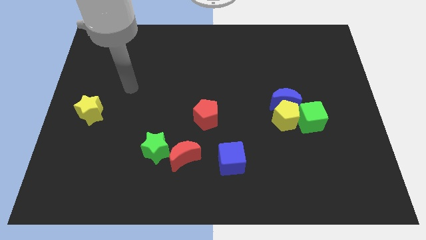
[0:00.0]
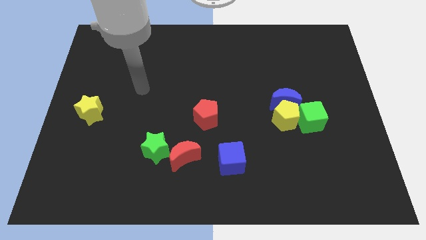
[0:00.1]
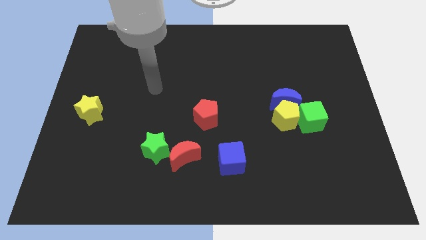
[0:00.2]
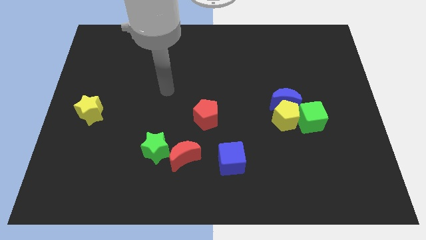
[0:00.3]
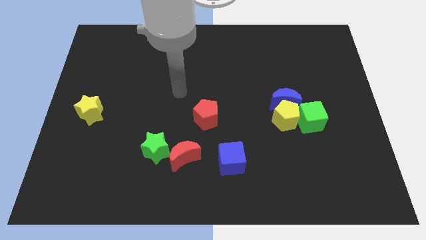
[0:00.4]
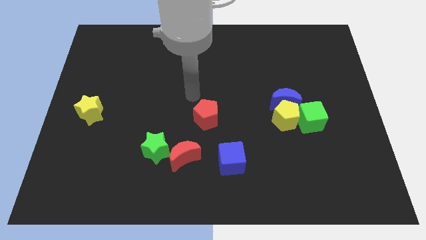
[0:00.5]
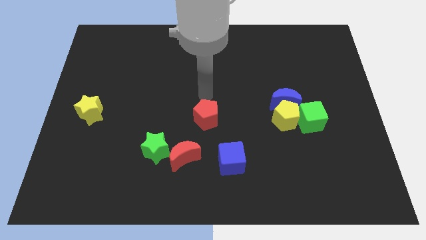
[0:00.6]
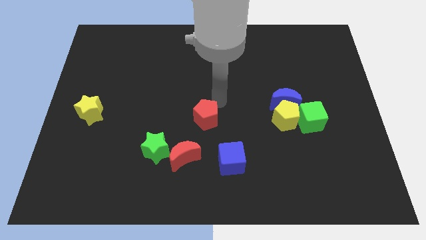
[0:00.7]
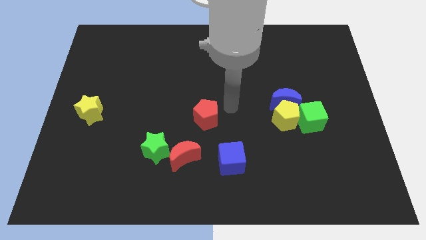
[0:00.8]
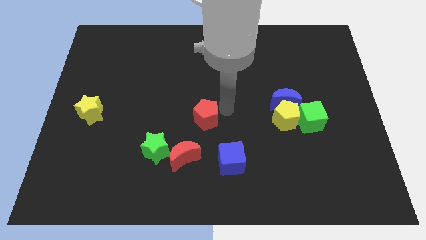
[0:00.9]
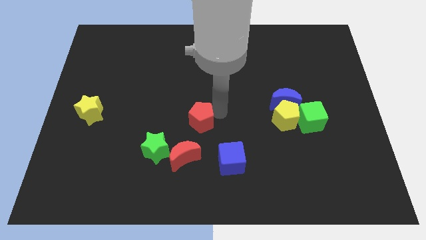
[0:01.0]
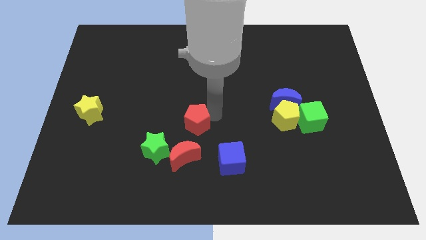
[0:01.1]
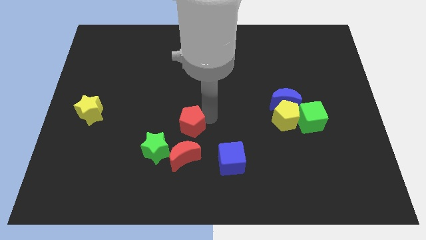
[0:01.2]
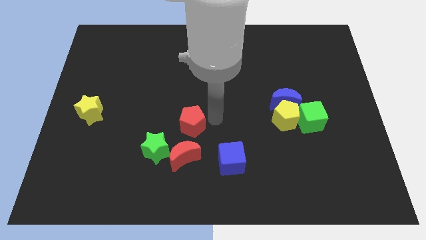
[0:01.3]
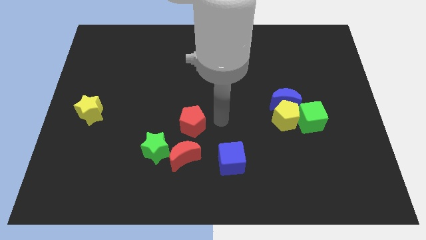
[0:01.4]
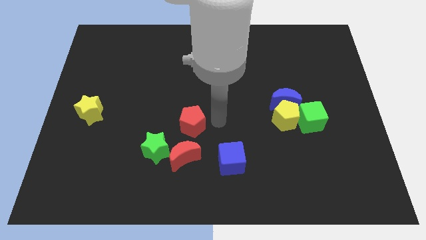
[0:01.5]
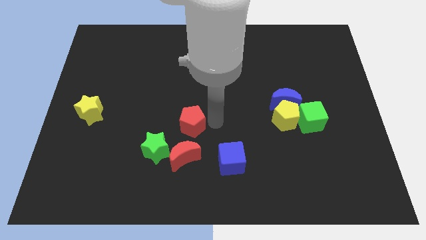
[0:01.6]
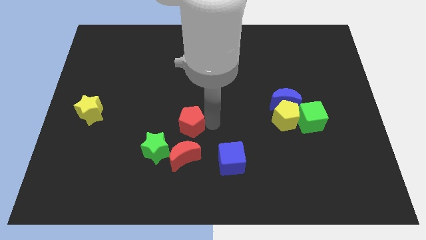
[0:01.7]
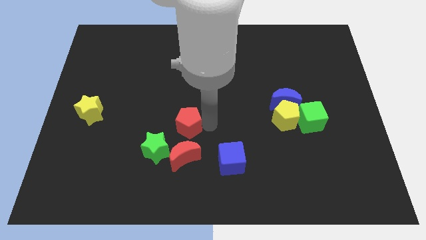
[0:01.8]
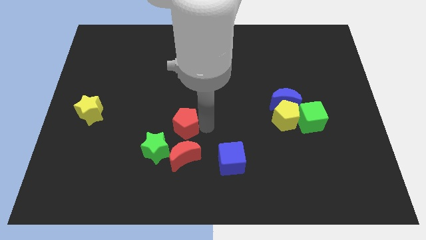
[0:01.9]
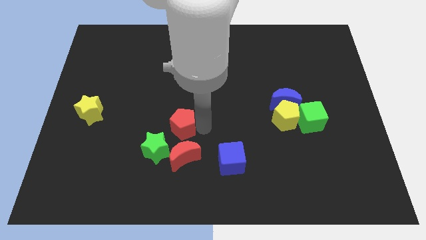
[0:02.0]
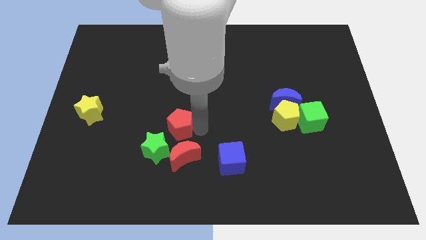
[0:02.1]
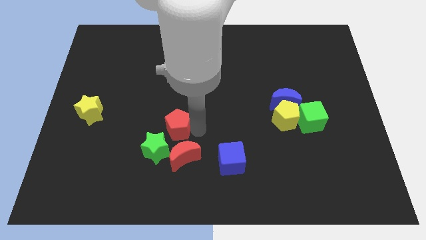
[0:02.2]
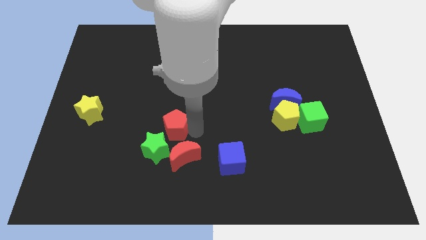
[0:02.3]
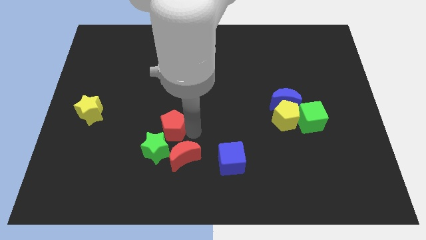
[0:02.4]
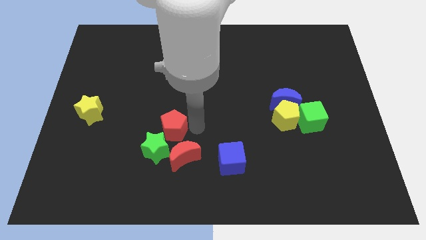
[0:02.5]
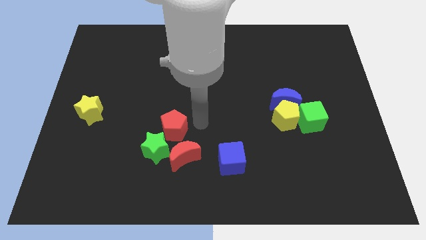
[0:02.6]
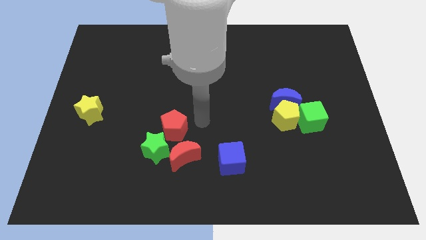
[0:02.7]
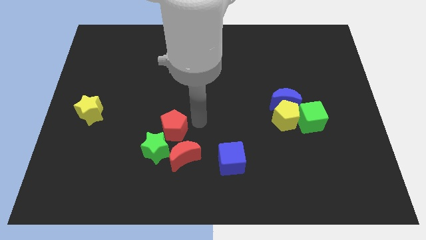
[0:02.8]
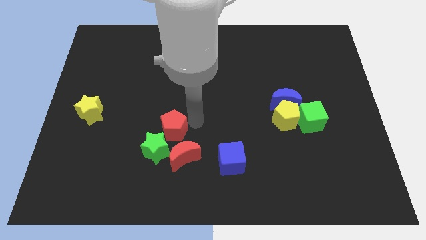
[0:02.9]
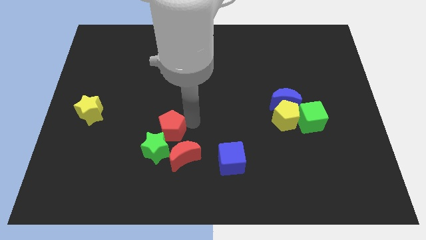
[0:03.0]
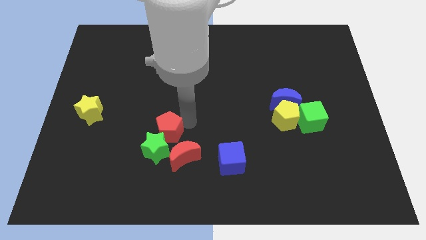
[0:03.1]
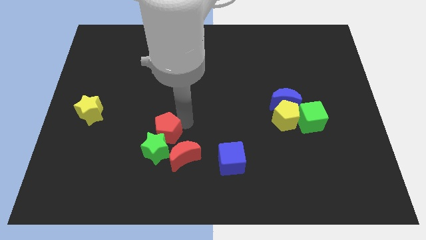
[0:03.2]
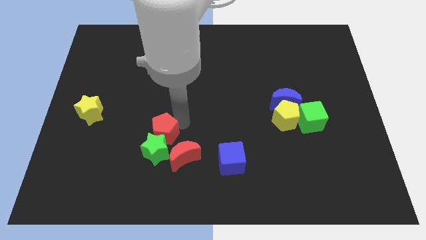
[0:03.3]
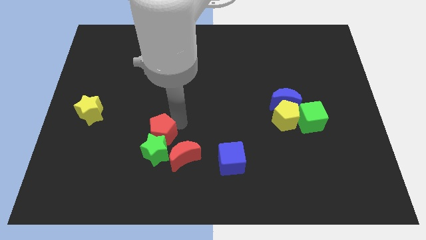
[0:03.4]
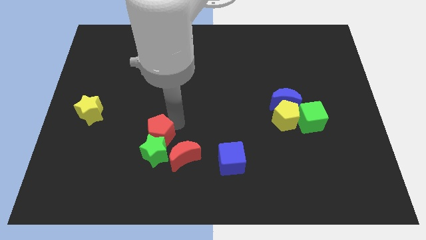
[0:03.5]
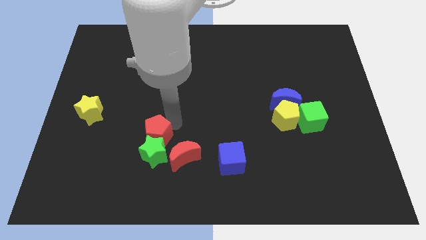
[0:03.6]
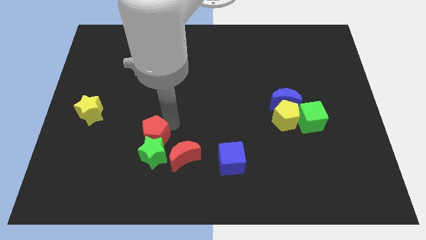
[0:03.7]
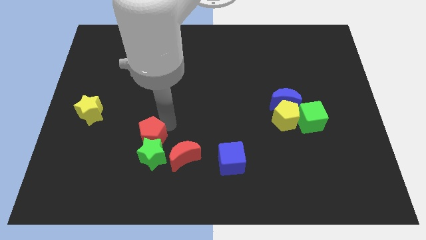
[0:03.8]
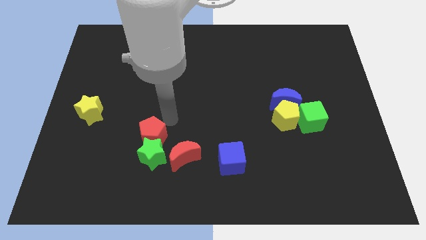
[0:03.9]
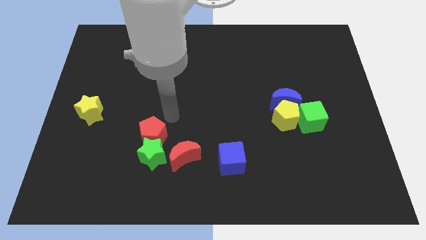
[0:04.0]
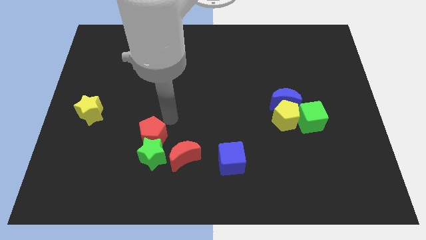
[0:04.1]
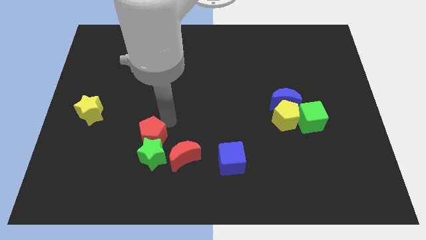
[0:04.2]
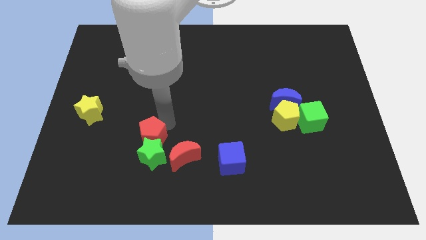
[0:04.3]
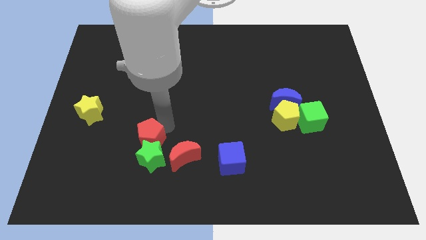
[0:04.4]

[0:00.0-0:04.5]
push the red pentagon to the left side of the red moon

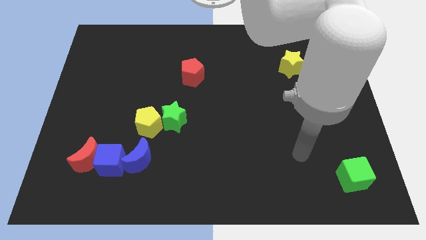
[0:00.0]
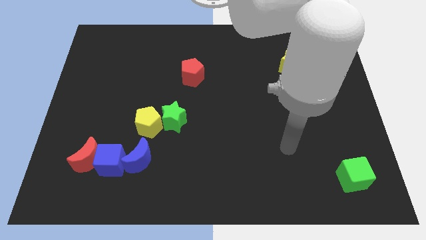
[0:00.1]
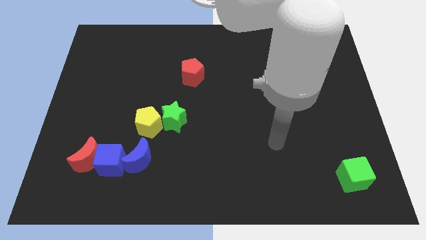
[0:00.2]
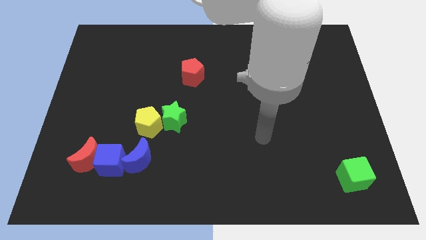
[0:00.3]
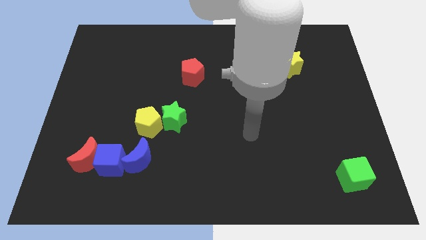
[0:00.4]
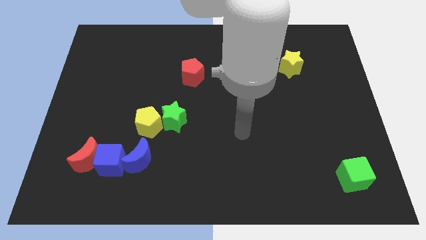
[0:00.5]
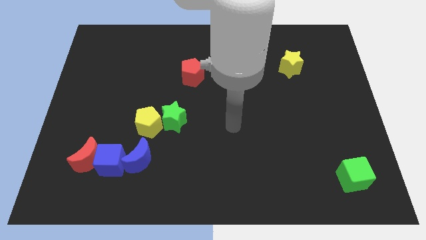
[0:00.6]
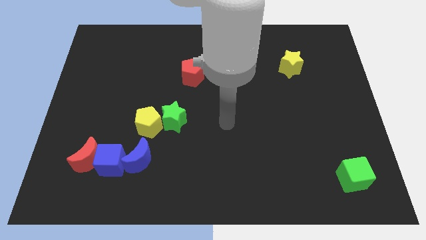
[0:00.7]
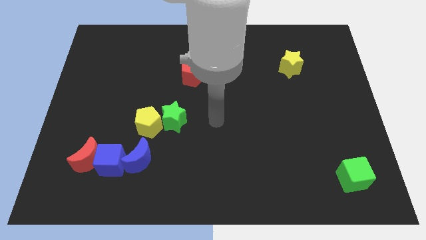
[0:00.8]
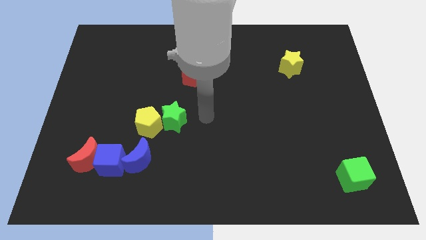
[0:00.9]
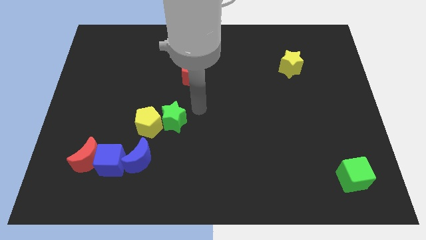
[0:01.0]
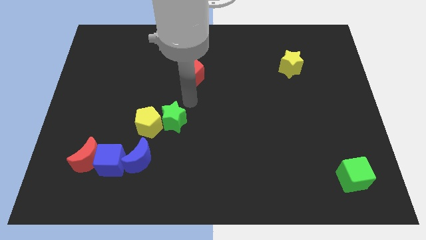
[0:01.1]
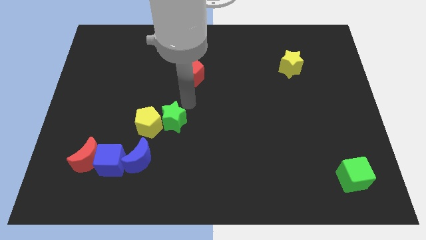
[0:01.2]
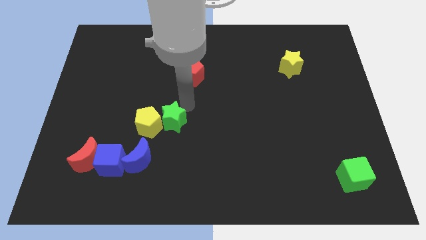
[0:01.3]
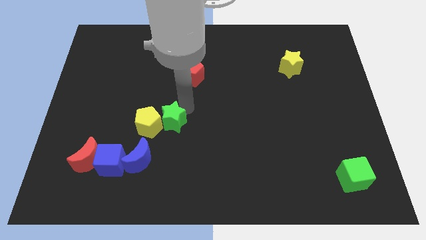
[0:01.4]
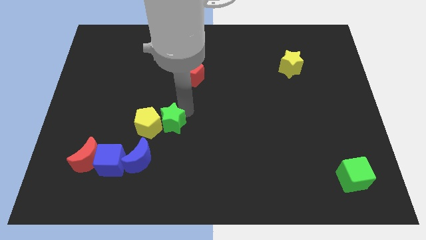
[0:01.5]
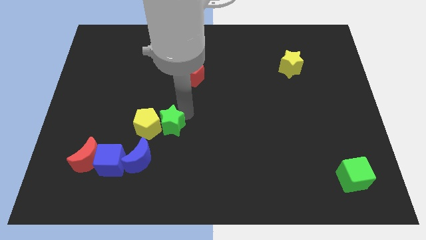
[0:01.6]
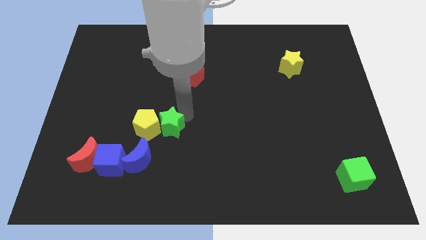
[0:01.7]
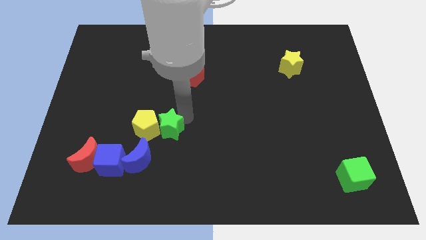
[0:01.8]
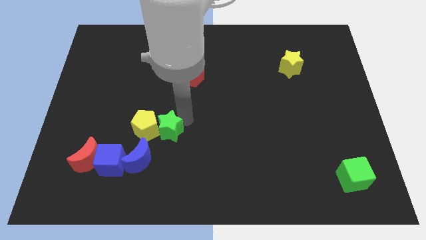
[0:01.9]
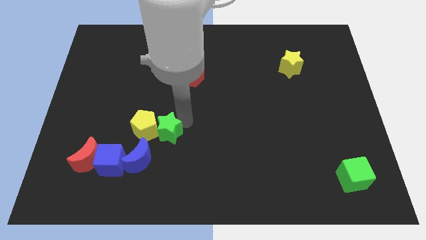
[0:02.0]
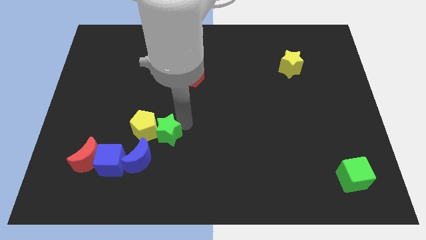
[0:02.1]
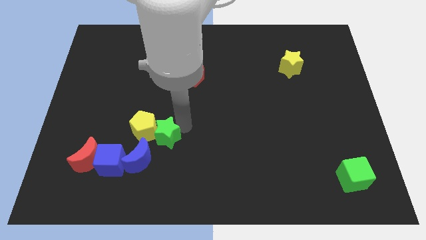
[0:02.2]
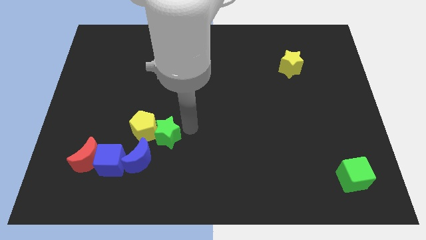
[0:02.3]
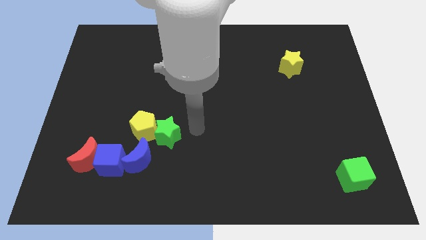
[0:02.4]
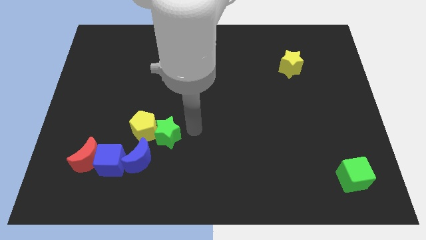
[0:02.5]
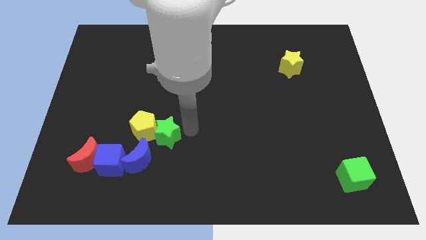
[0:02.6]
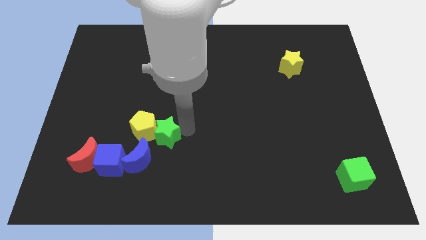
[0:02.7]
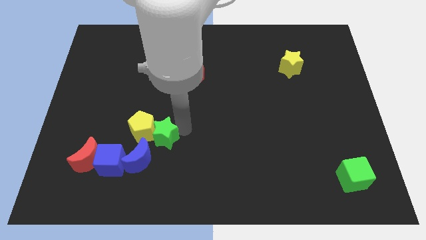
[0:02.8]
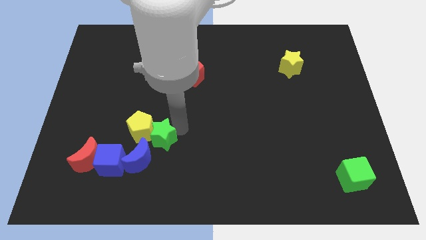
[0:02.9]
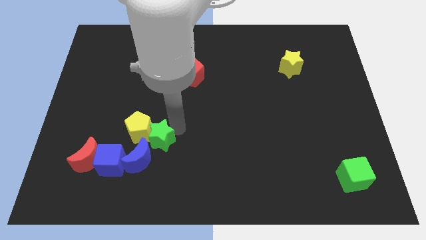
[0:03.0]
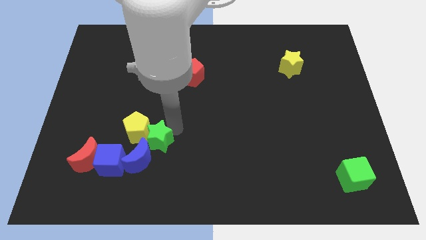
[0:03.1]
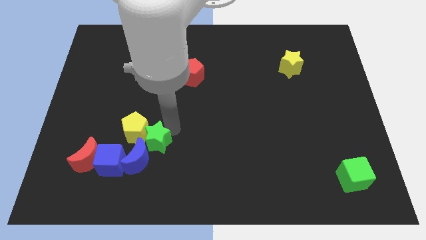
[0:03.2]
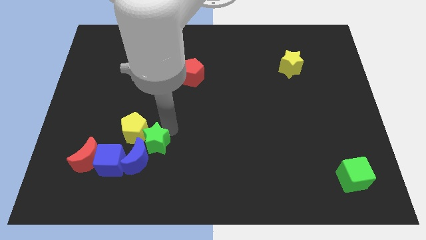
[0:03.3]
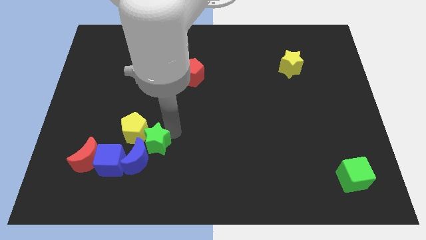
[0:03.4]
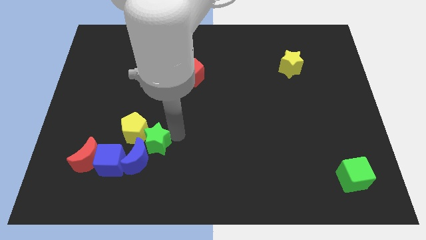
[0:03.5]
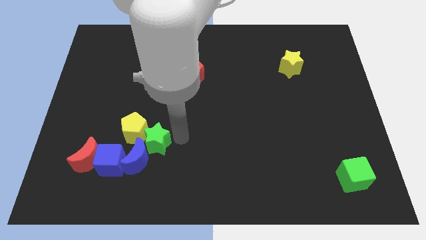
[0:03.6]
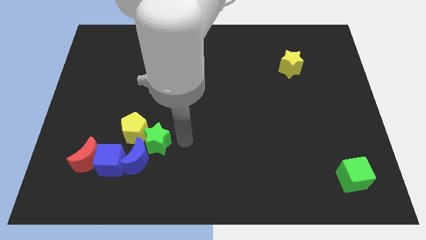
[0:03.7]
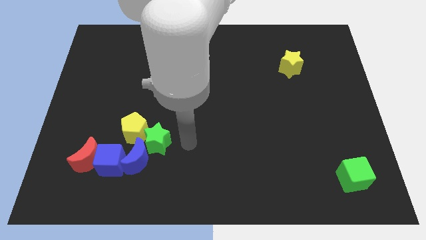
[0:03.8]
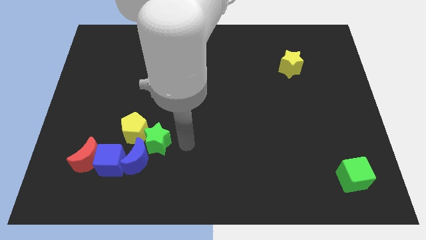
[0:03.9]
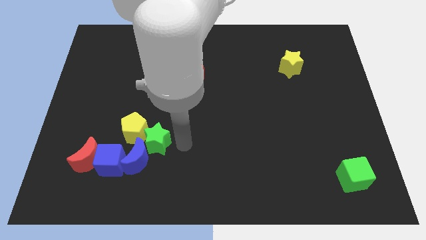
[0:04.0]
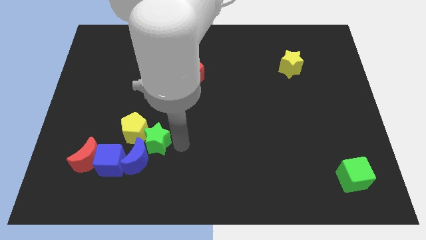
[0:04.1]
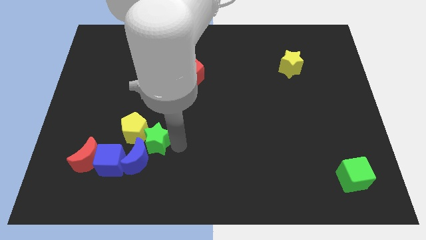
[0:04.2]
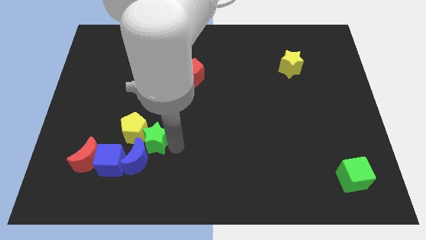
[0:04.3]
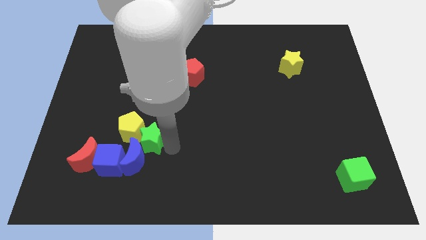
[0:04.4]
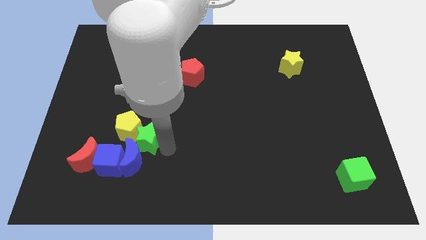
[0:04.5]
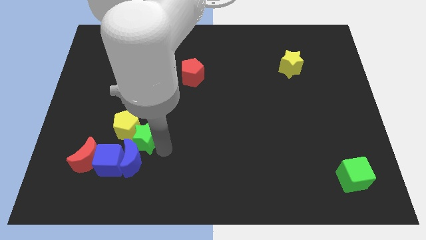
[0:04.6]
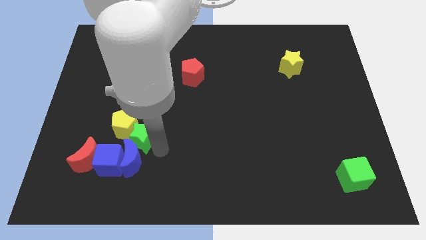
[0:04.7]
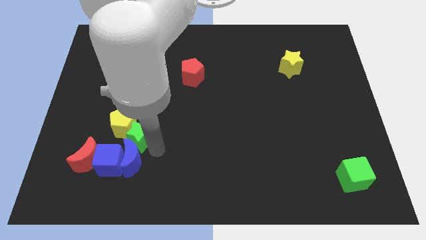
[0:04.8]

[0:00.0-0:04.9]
move the green star to the top right of the red moon
